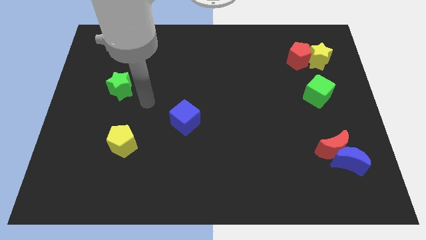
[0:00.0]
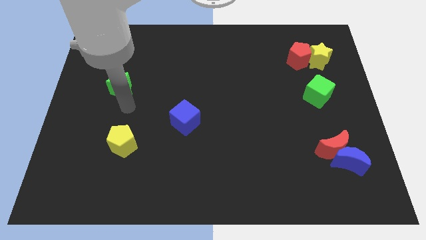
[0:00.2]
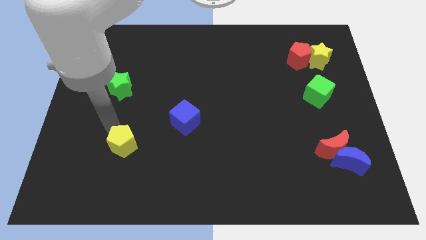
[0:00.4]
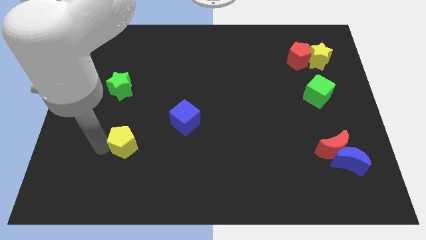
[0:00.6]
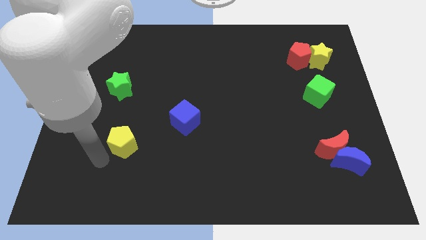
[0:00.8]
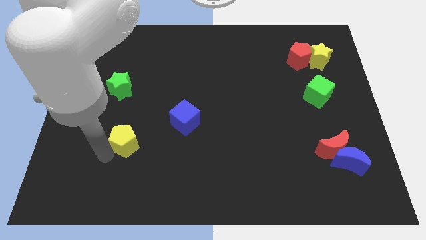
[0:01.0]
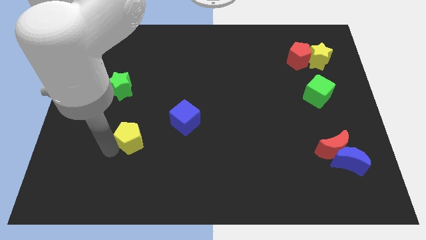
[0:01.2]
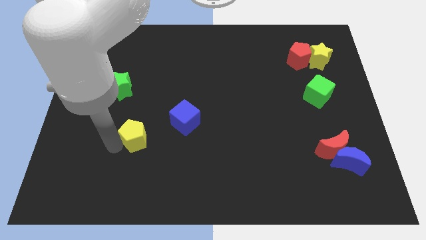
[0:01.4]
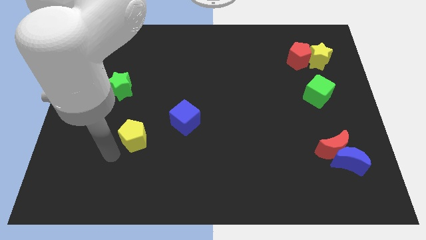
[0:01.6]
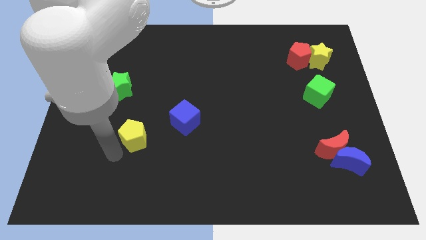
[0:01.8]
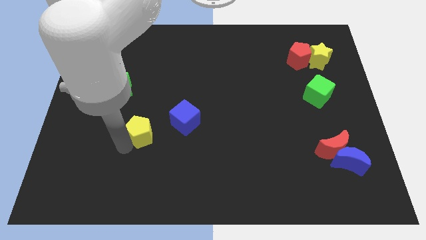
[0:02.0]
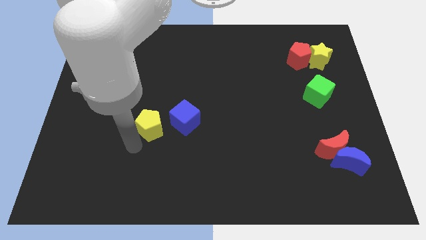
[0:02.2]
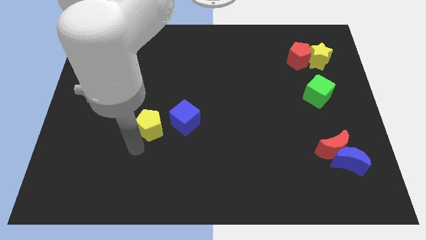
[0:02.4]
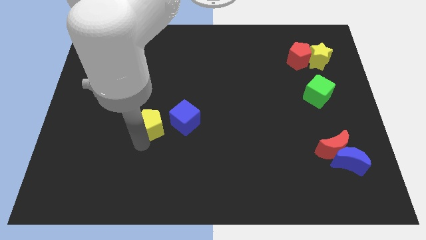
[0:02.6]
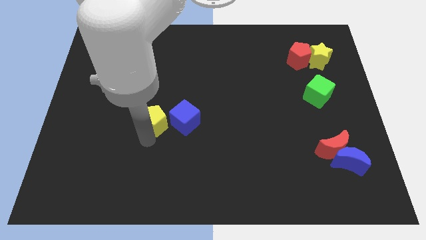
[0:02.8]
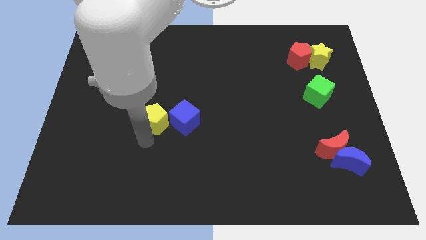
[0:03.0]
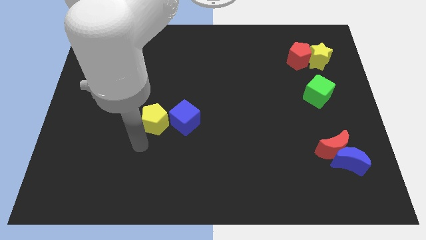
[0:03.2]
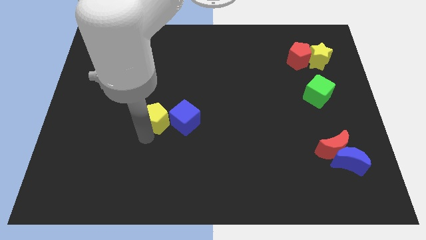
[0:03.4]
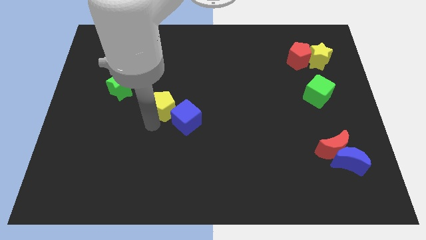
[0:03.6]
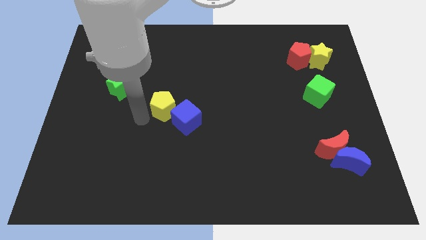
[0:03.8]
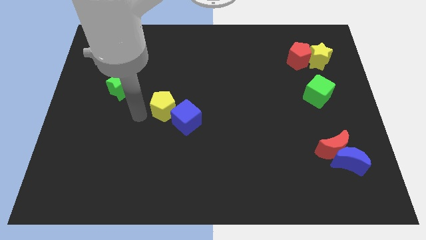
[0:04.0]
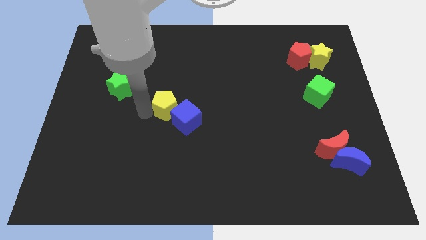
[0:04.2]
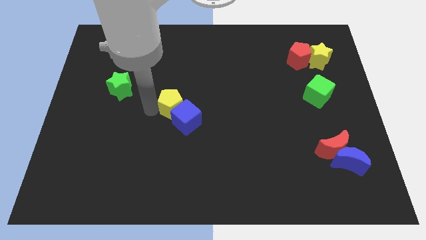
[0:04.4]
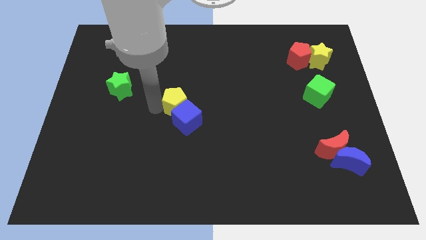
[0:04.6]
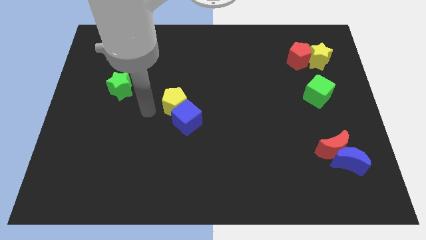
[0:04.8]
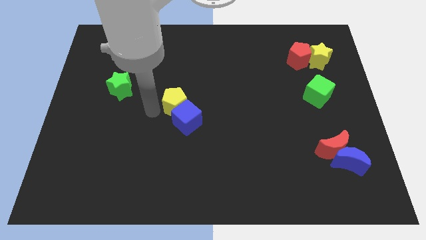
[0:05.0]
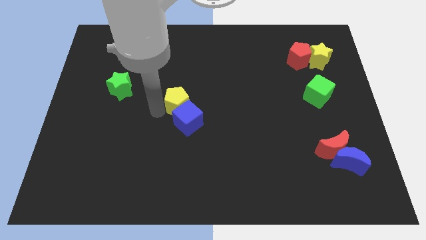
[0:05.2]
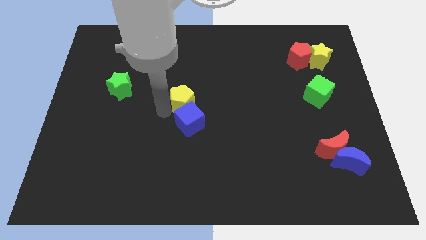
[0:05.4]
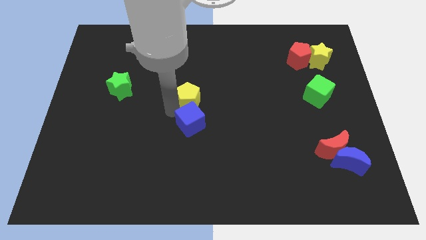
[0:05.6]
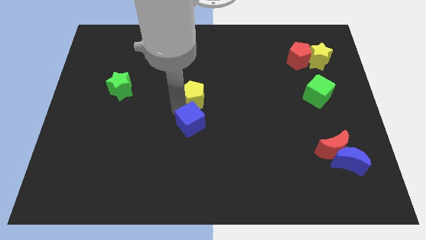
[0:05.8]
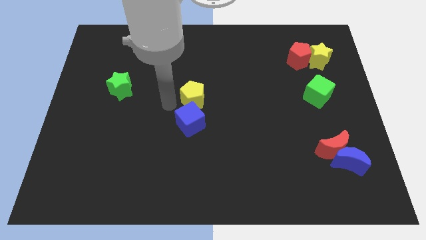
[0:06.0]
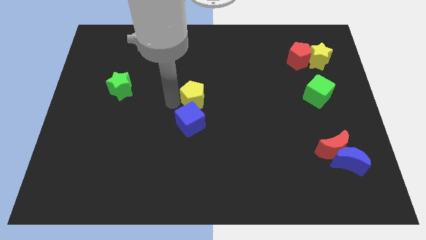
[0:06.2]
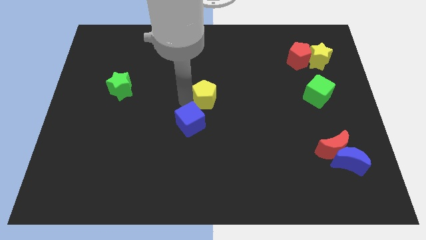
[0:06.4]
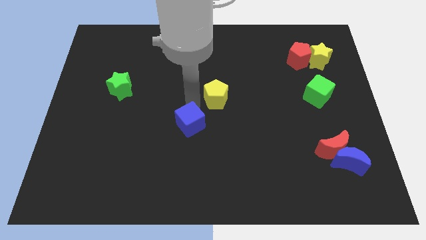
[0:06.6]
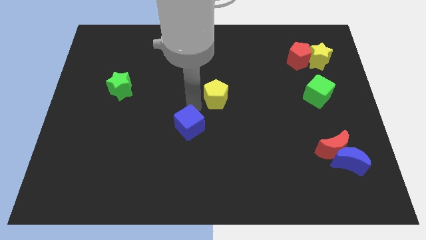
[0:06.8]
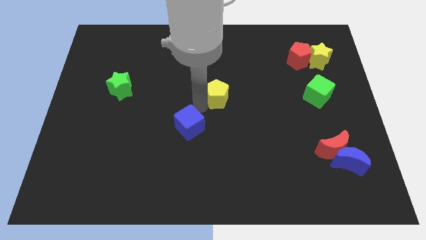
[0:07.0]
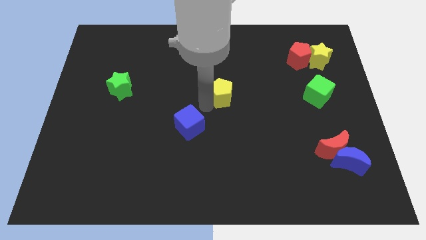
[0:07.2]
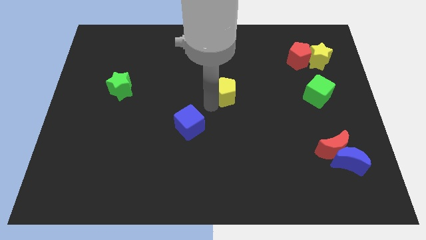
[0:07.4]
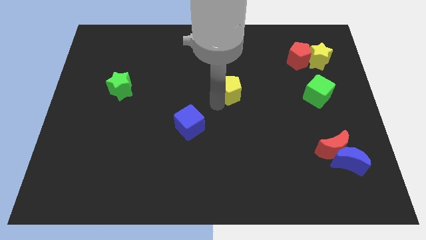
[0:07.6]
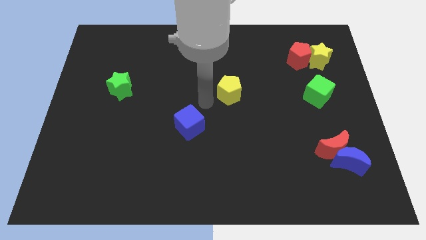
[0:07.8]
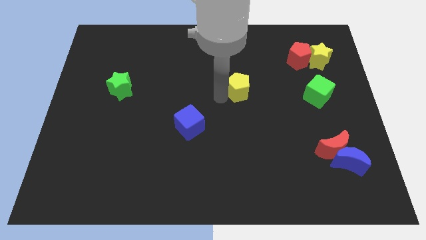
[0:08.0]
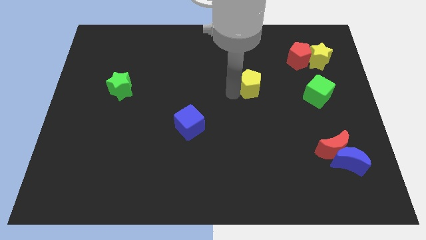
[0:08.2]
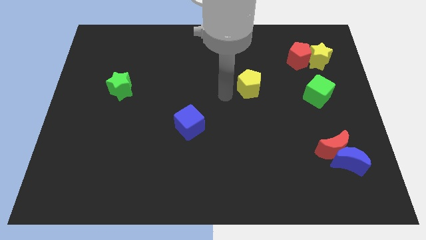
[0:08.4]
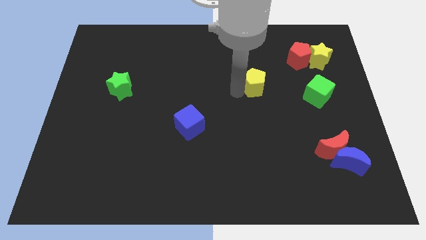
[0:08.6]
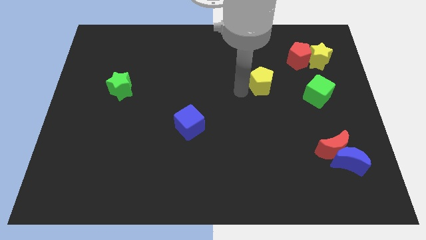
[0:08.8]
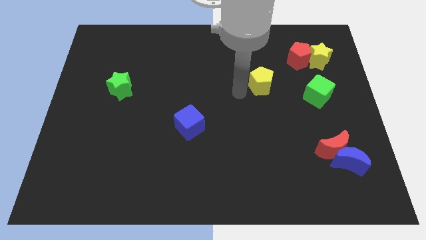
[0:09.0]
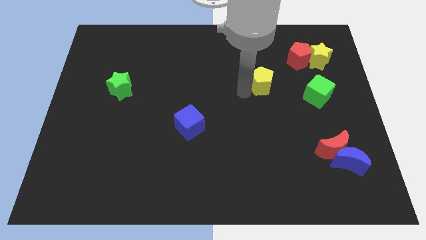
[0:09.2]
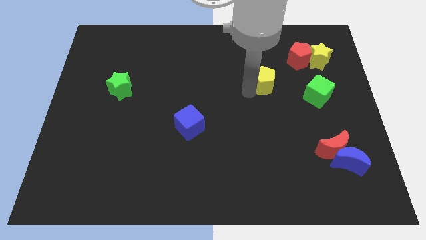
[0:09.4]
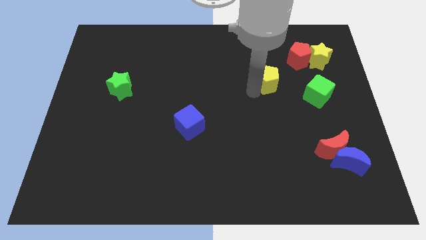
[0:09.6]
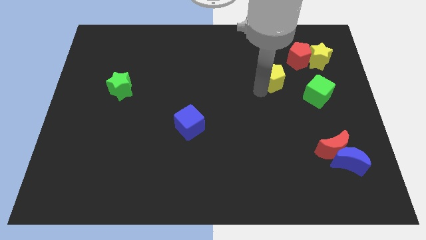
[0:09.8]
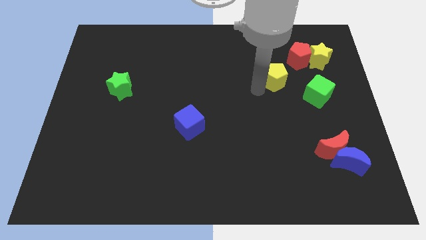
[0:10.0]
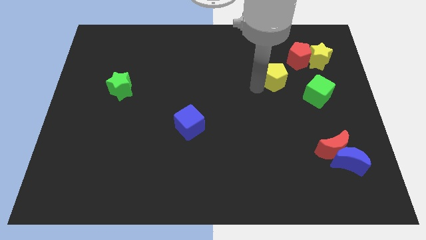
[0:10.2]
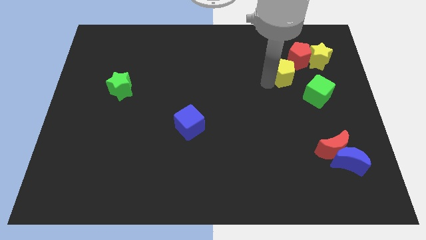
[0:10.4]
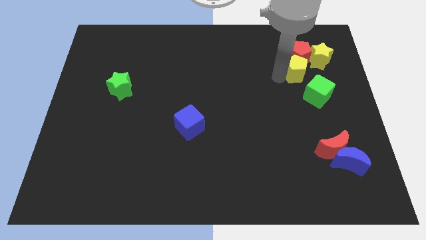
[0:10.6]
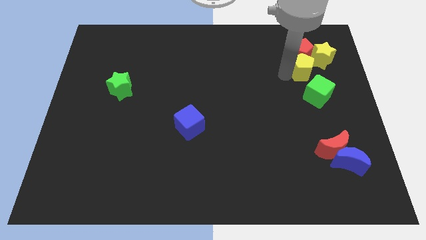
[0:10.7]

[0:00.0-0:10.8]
move the yellow pentagon to the bottom right side of the red pentagon

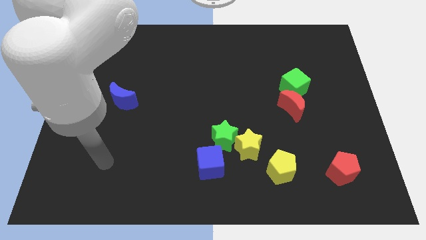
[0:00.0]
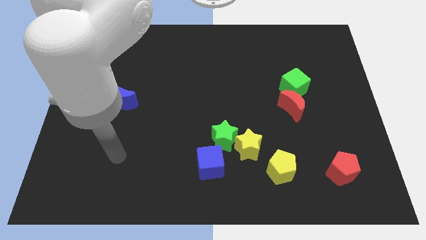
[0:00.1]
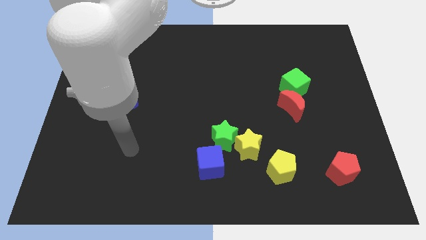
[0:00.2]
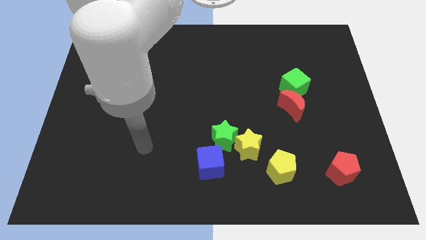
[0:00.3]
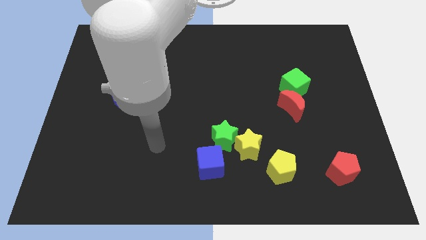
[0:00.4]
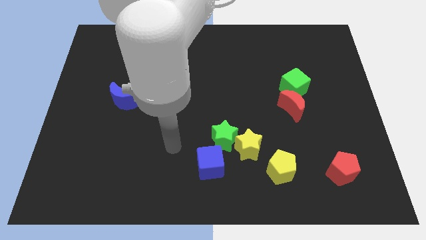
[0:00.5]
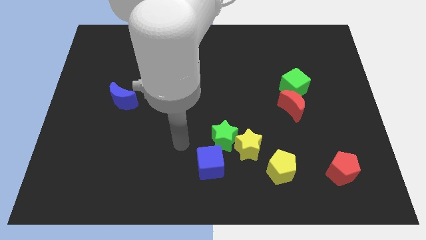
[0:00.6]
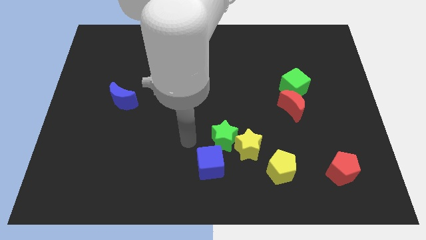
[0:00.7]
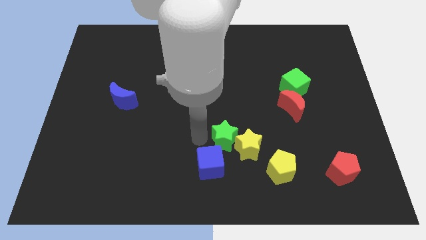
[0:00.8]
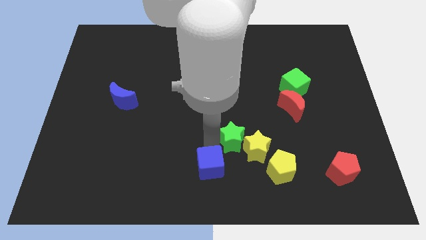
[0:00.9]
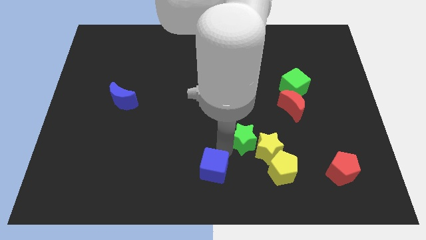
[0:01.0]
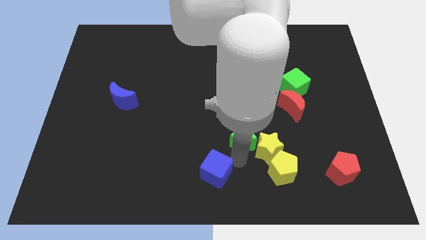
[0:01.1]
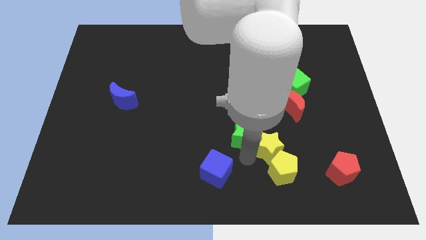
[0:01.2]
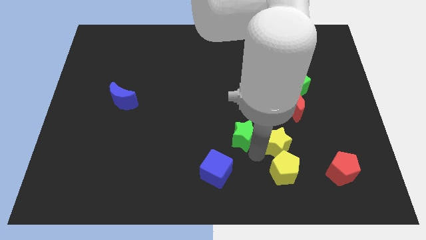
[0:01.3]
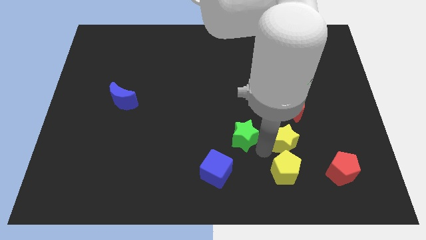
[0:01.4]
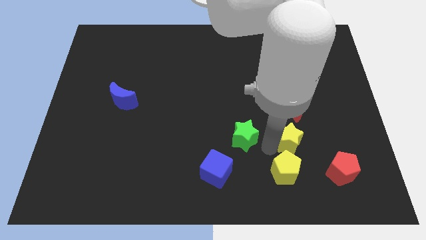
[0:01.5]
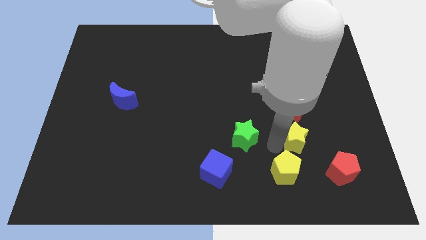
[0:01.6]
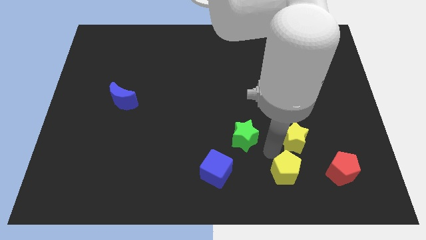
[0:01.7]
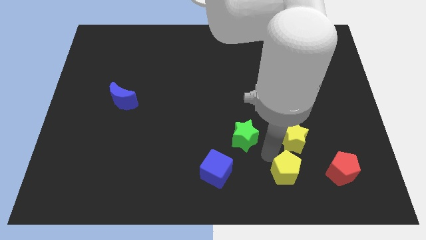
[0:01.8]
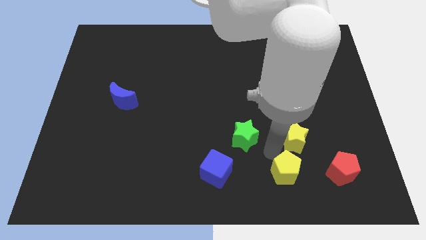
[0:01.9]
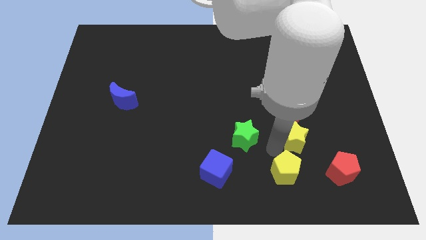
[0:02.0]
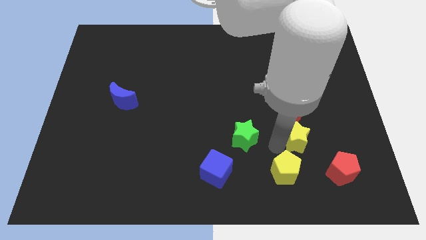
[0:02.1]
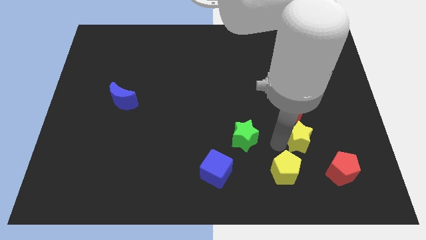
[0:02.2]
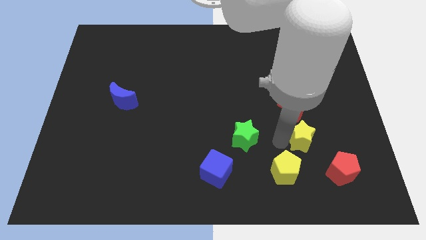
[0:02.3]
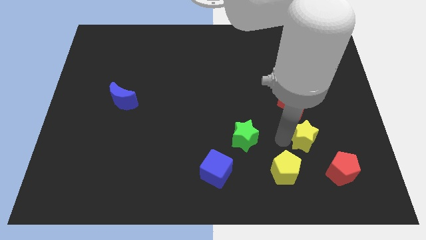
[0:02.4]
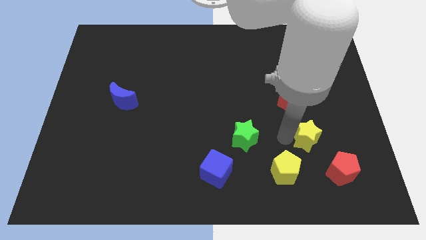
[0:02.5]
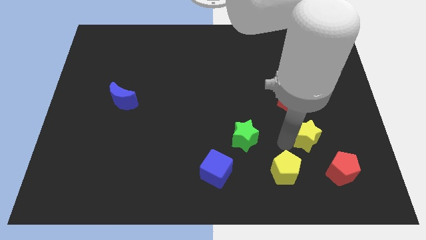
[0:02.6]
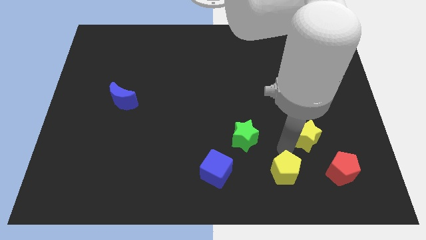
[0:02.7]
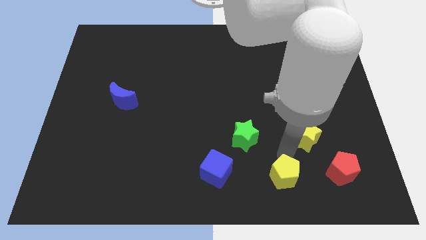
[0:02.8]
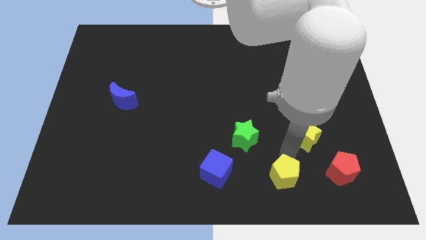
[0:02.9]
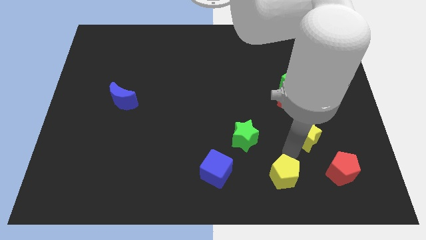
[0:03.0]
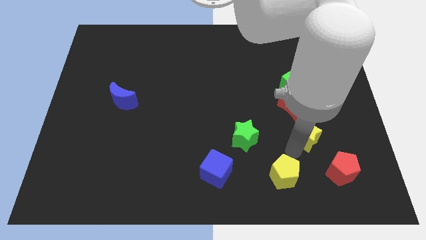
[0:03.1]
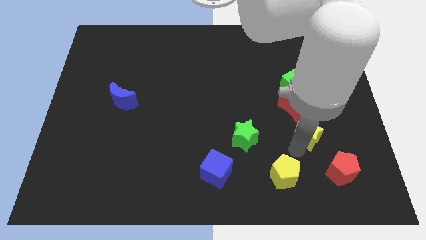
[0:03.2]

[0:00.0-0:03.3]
put the yellow star to the bottom right side of the red moon
